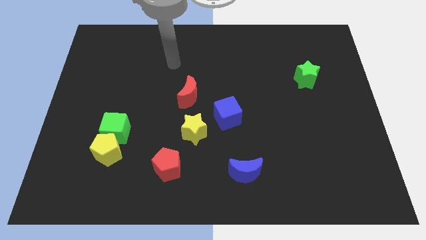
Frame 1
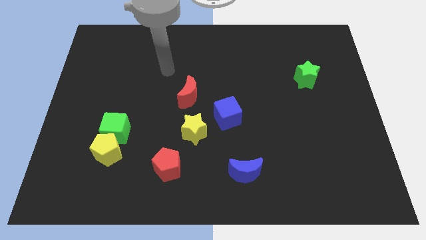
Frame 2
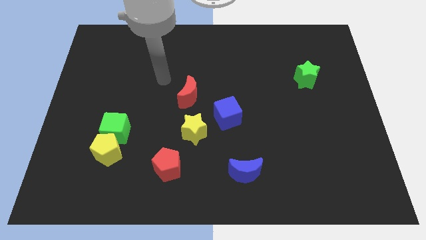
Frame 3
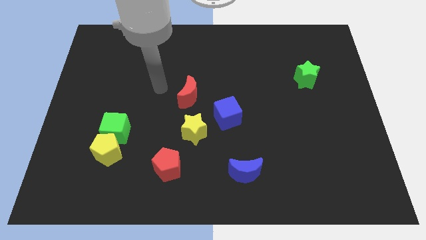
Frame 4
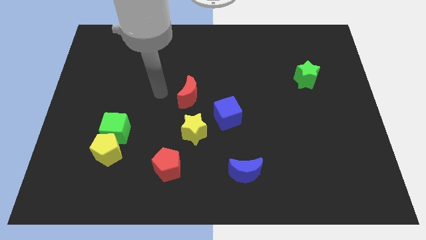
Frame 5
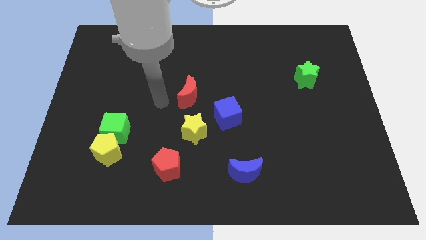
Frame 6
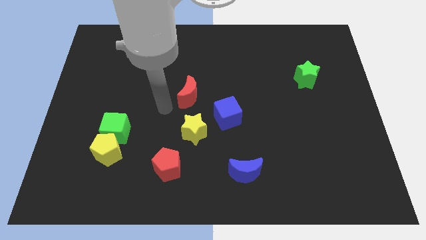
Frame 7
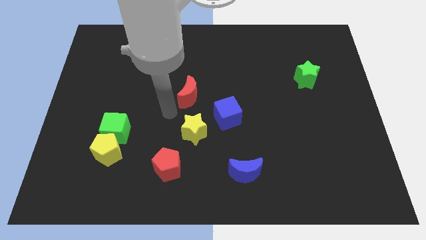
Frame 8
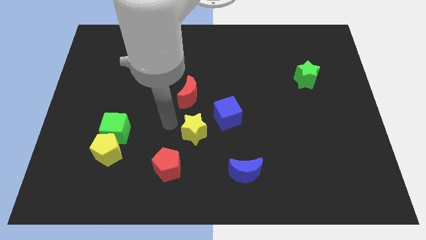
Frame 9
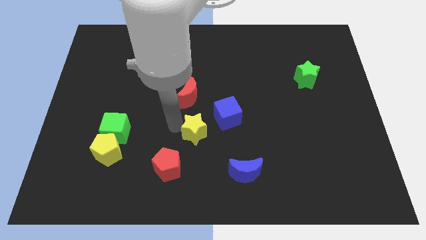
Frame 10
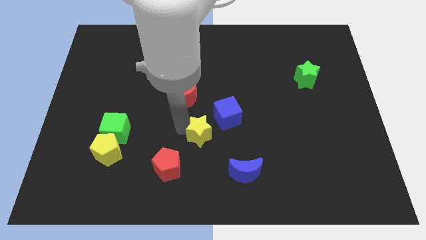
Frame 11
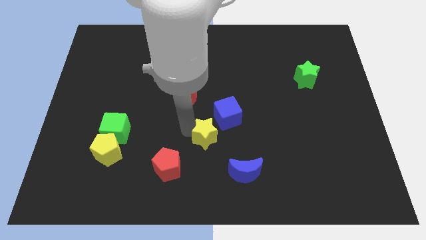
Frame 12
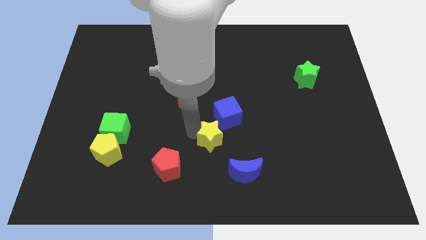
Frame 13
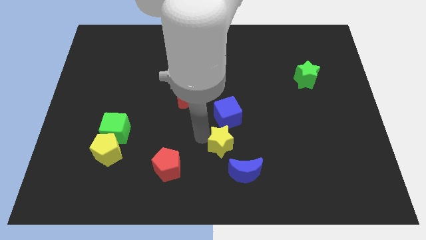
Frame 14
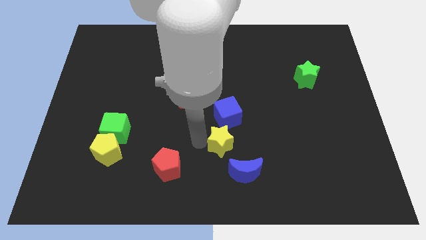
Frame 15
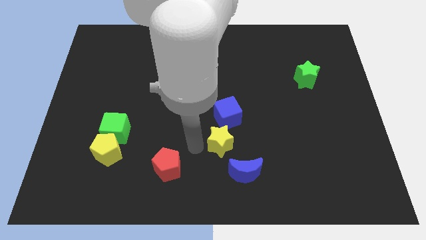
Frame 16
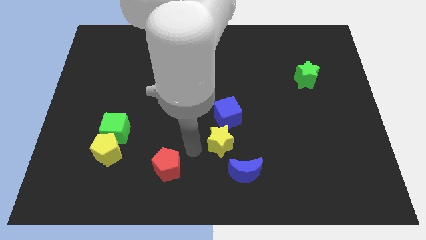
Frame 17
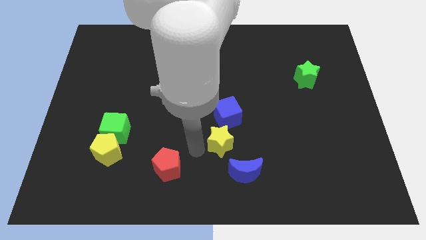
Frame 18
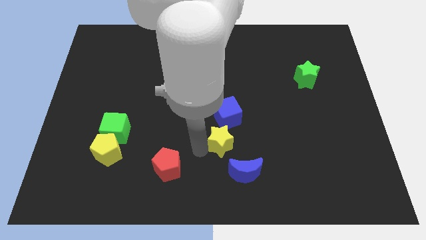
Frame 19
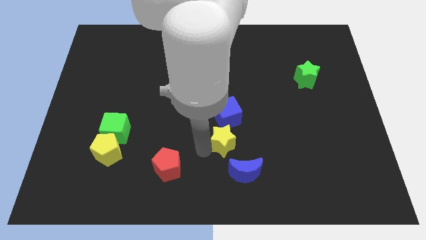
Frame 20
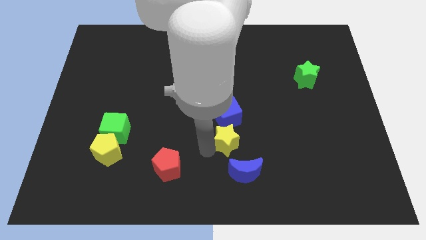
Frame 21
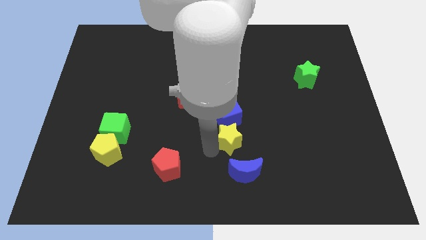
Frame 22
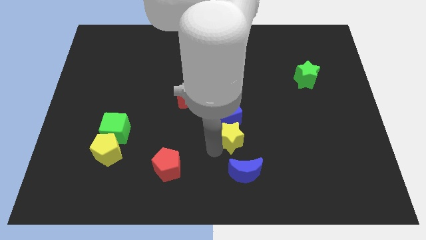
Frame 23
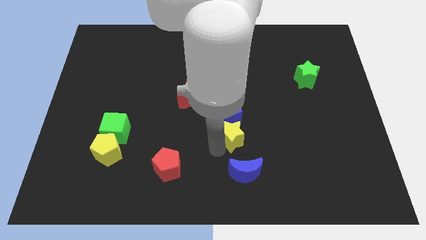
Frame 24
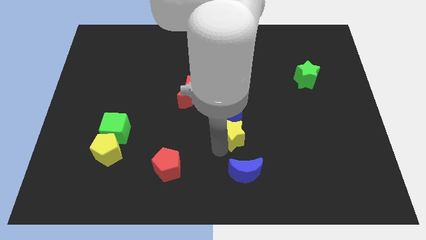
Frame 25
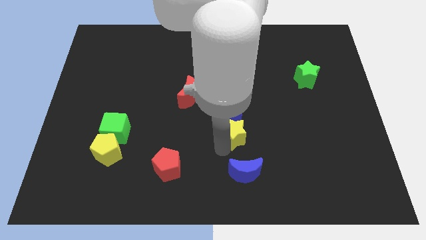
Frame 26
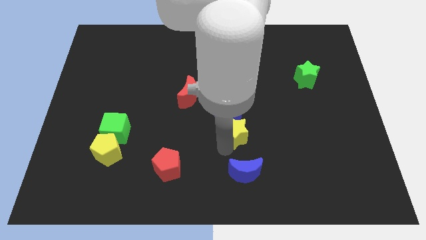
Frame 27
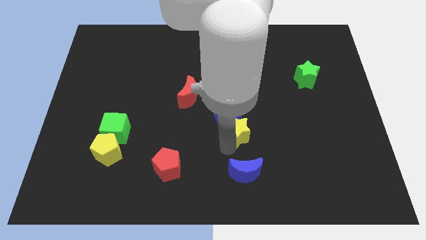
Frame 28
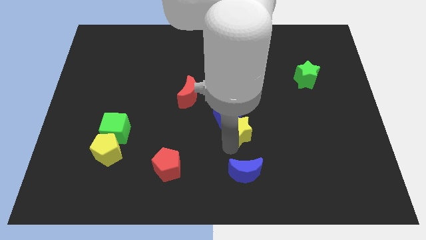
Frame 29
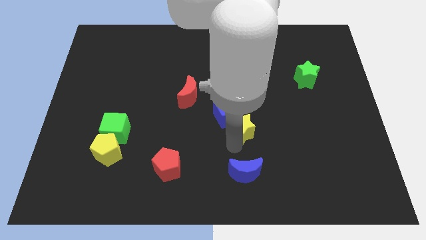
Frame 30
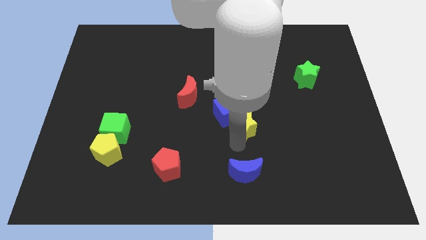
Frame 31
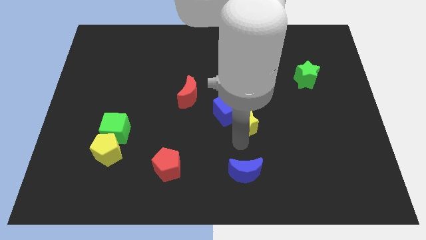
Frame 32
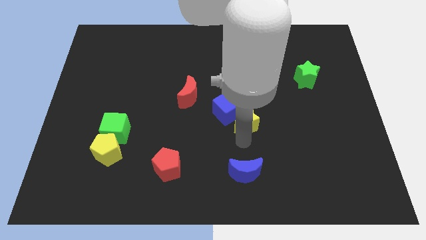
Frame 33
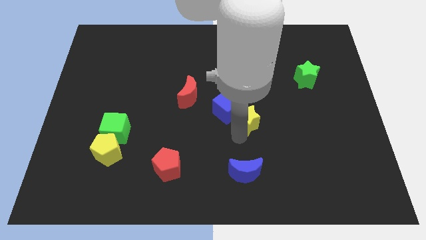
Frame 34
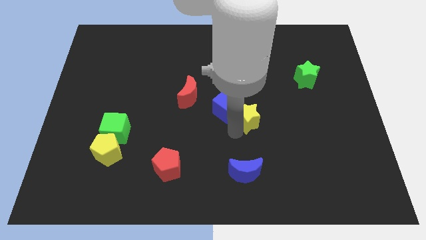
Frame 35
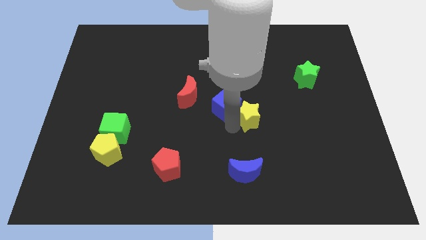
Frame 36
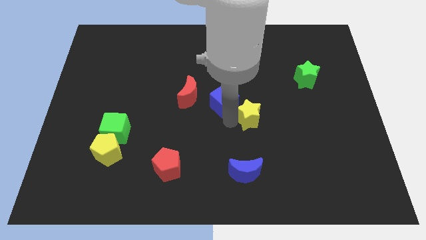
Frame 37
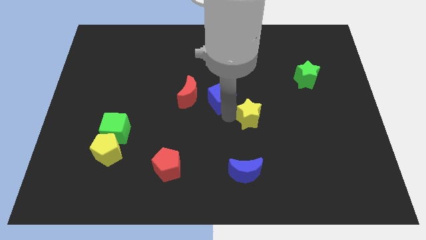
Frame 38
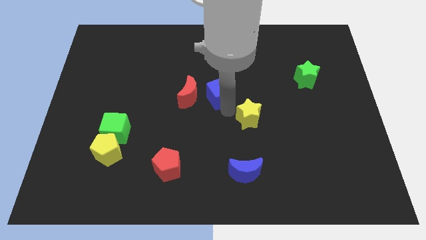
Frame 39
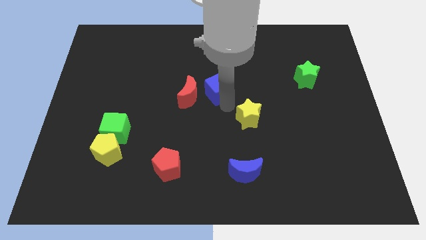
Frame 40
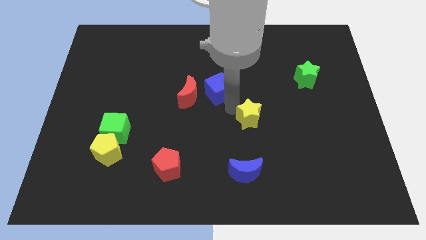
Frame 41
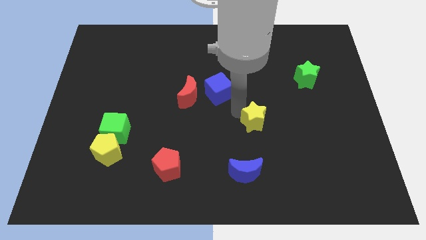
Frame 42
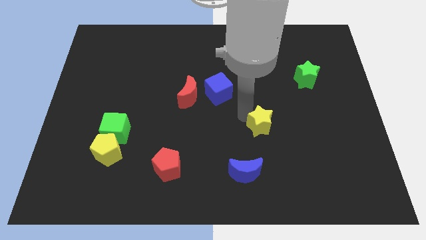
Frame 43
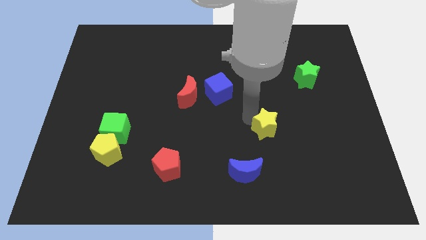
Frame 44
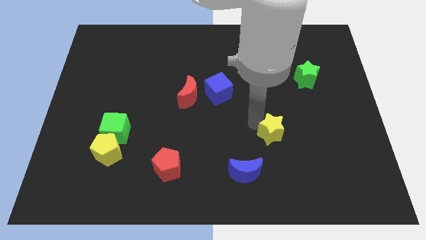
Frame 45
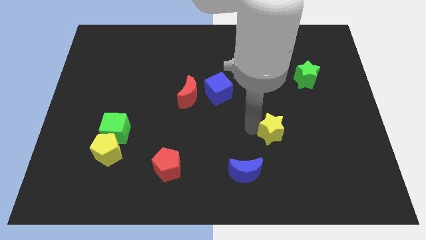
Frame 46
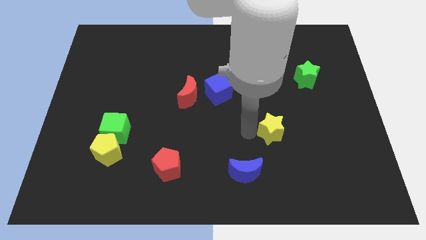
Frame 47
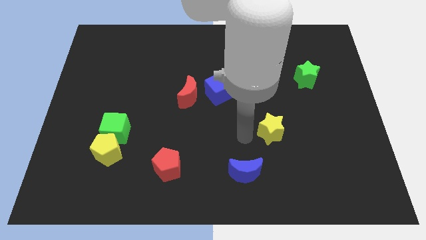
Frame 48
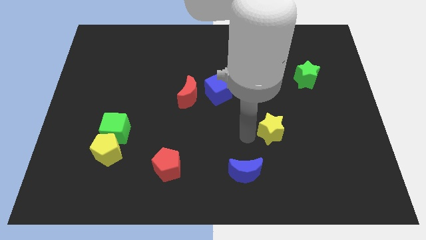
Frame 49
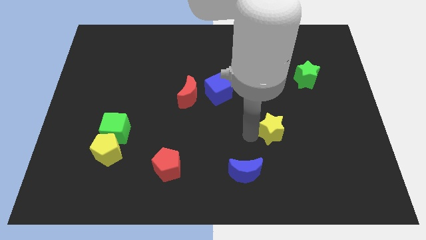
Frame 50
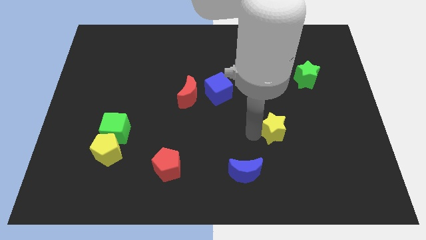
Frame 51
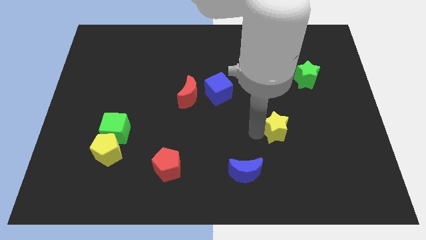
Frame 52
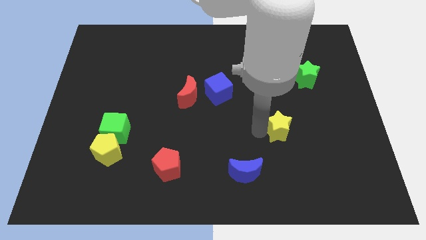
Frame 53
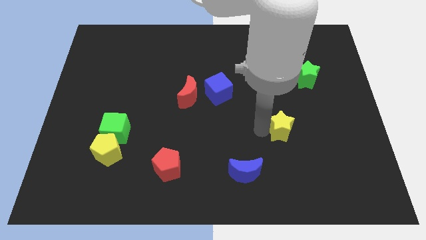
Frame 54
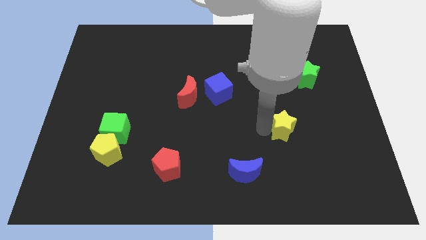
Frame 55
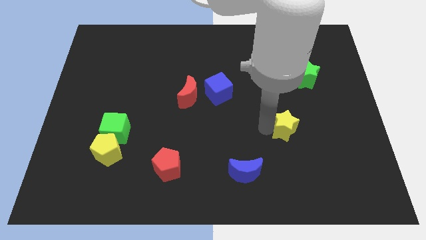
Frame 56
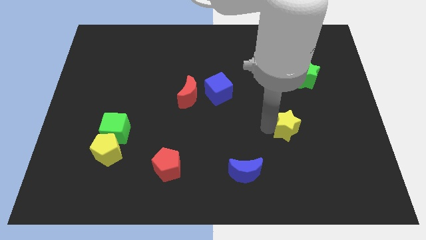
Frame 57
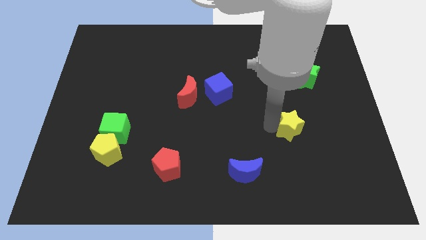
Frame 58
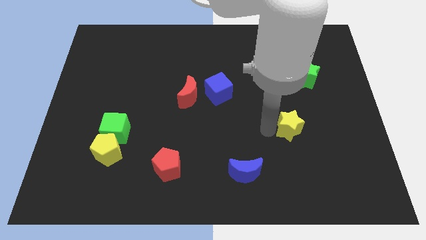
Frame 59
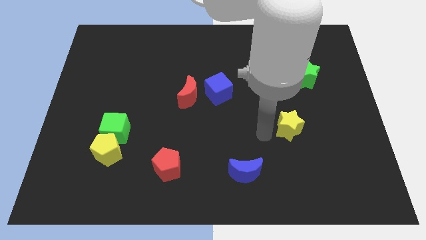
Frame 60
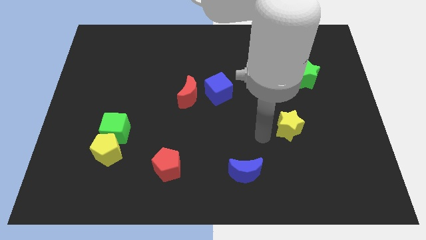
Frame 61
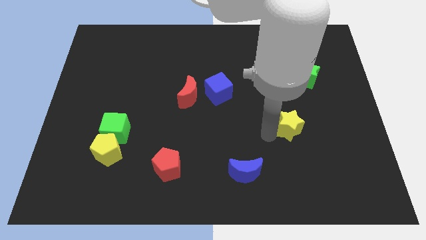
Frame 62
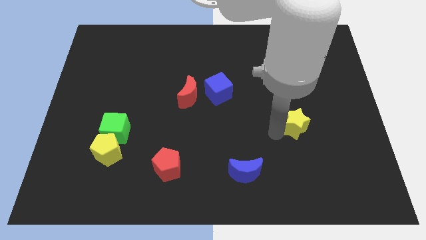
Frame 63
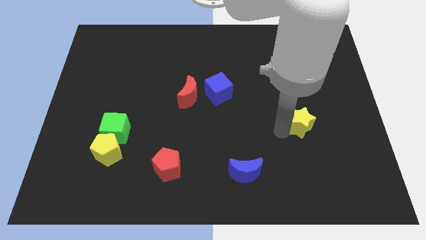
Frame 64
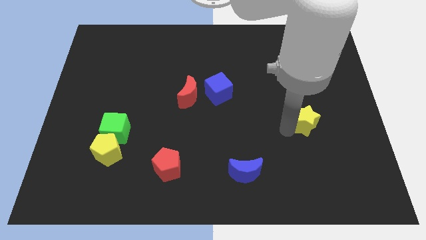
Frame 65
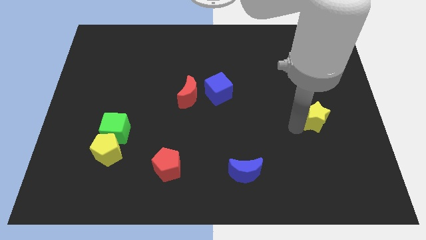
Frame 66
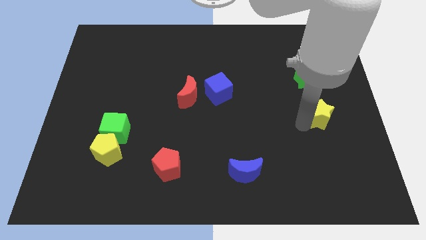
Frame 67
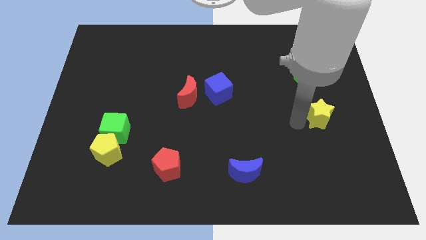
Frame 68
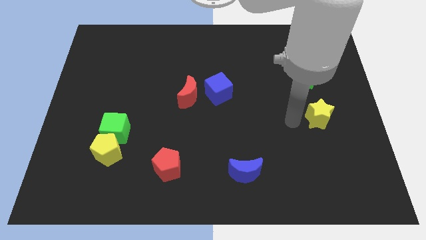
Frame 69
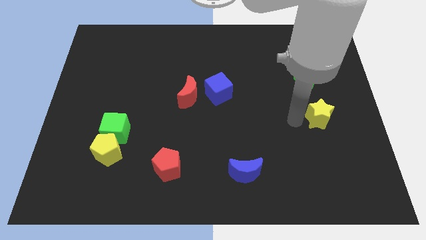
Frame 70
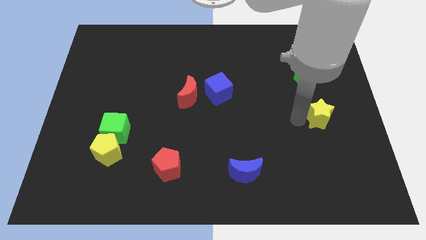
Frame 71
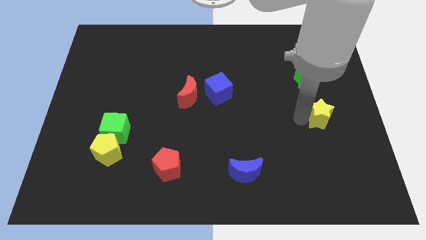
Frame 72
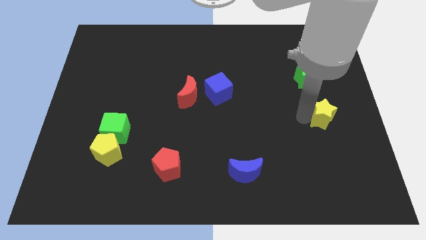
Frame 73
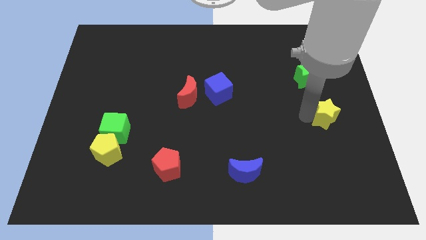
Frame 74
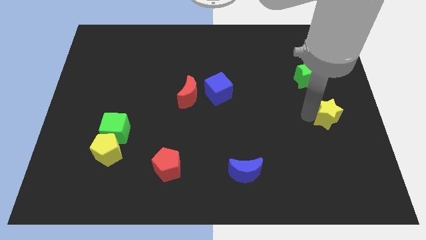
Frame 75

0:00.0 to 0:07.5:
slide the yellow star to the center right
